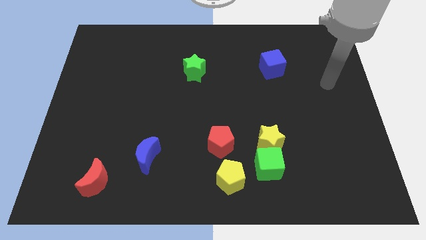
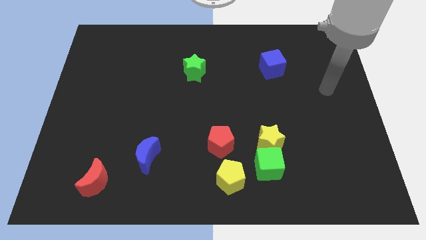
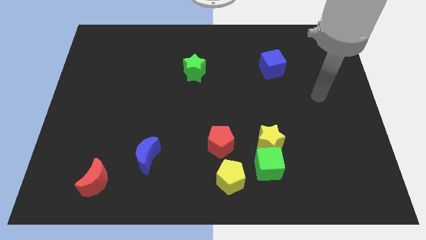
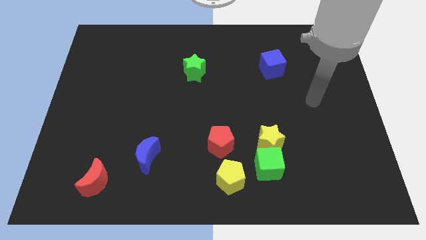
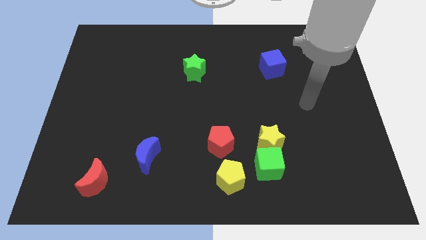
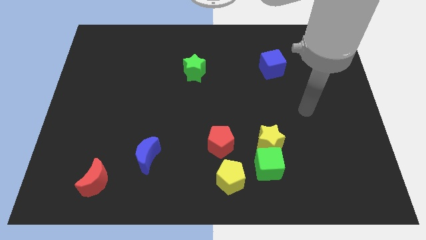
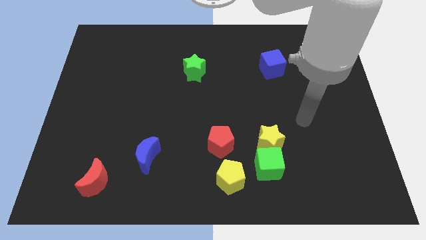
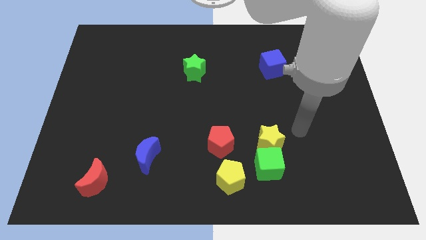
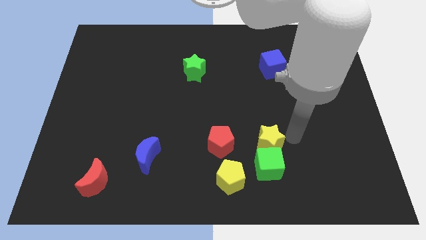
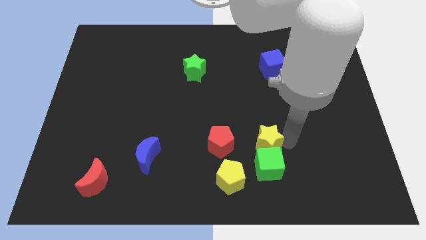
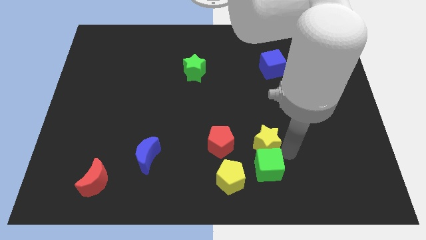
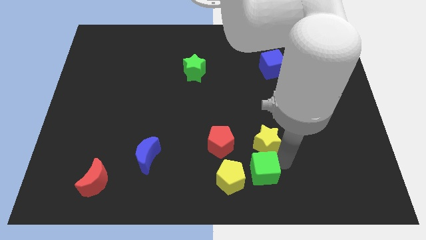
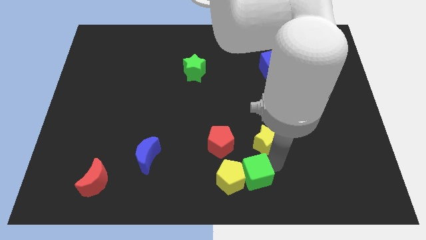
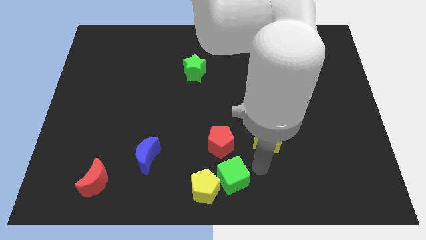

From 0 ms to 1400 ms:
separate the yellow star from the green cube

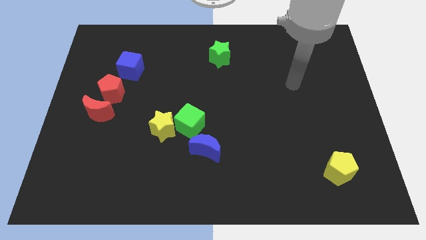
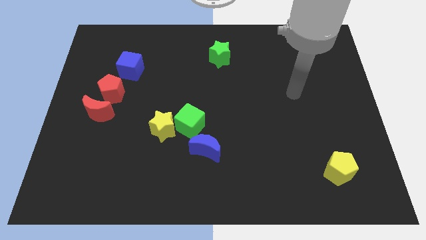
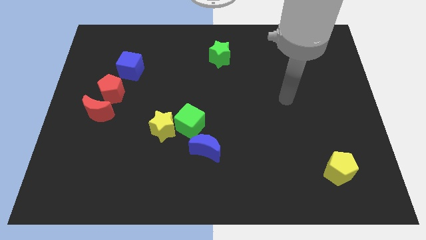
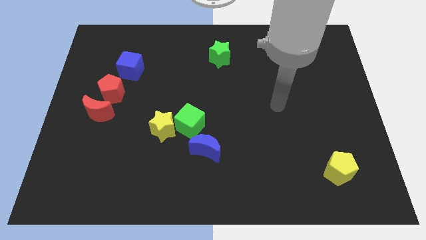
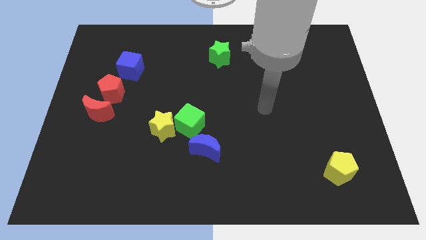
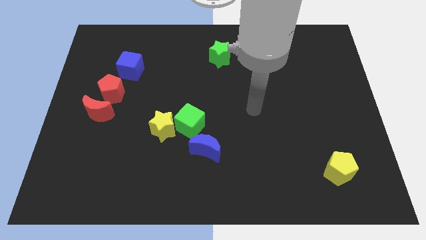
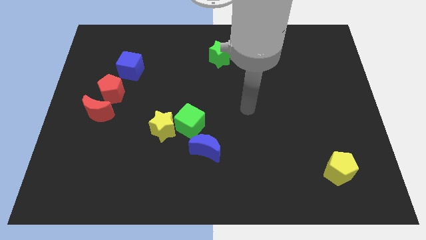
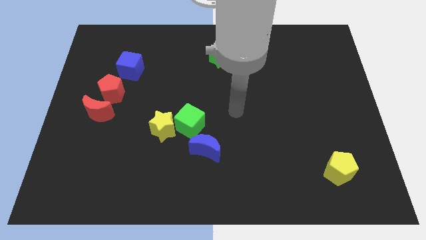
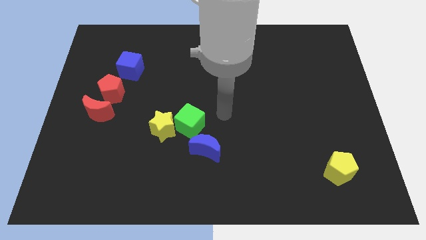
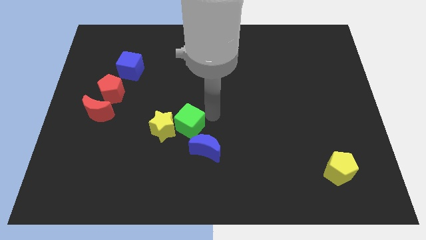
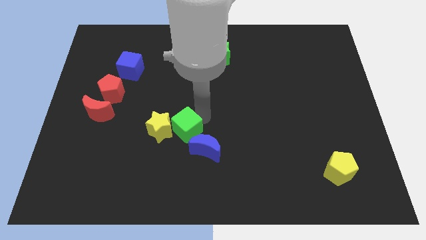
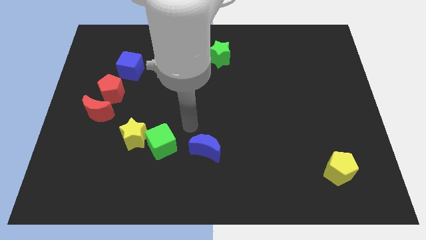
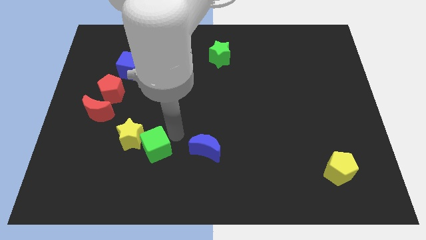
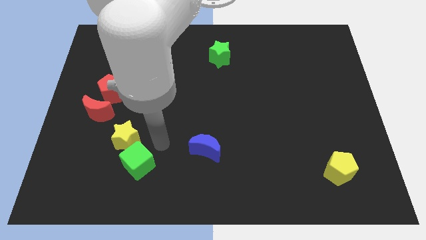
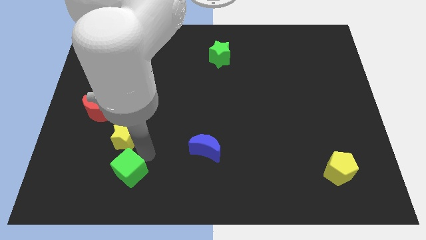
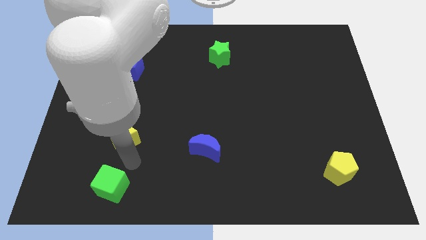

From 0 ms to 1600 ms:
pull the yellow star apart from the green cube

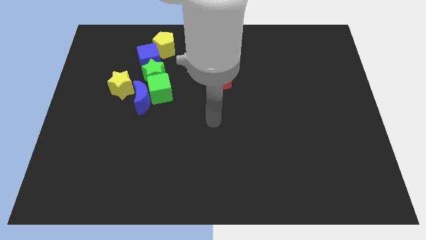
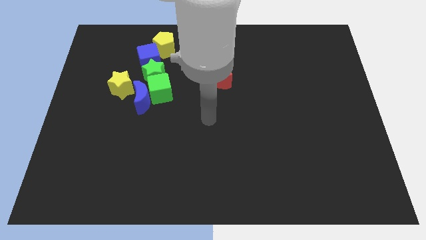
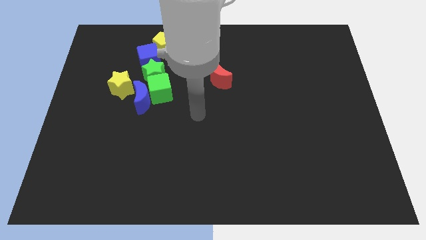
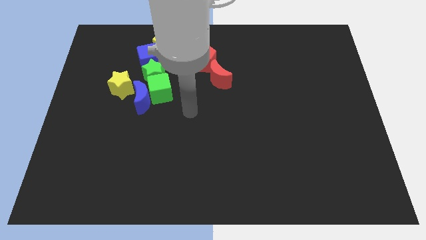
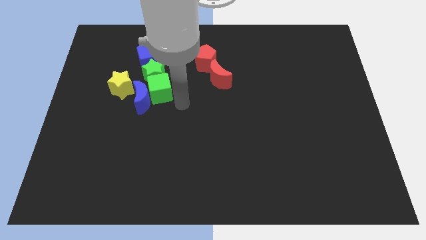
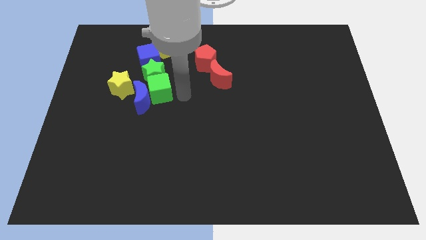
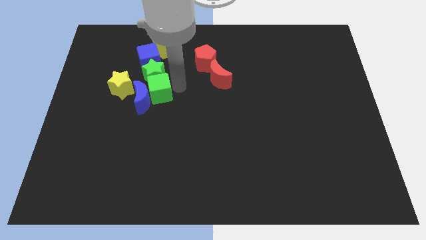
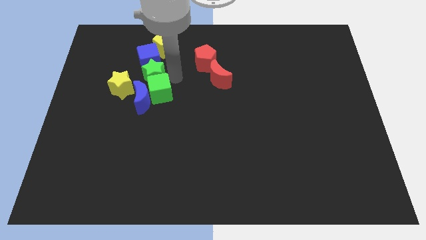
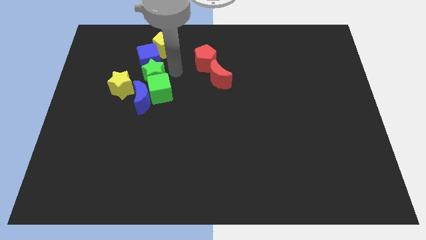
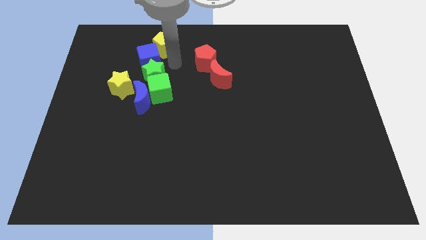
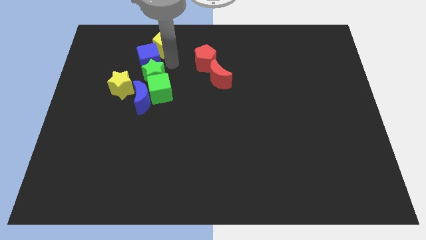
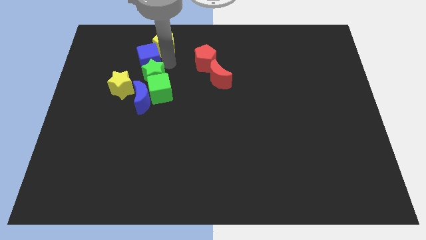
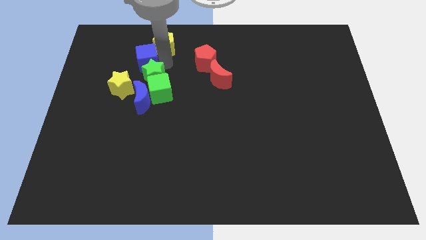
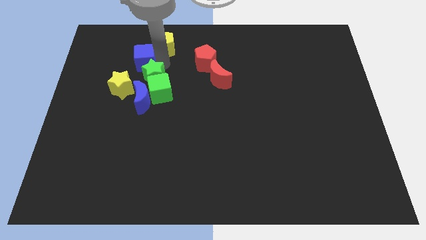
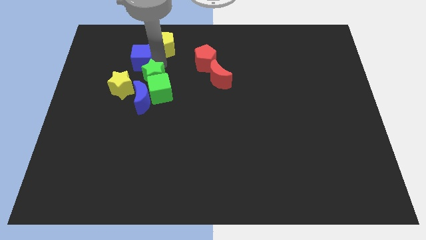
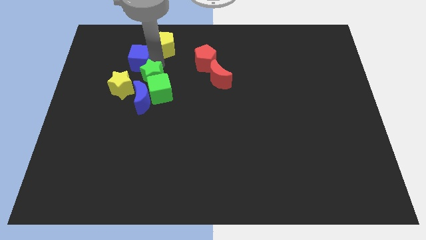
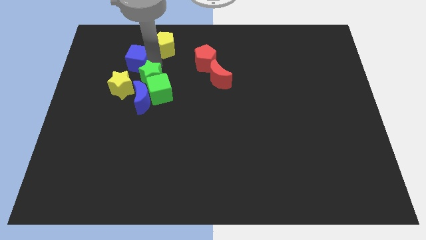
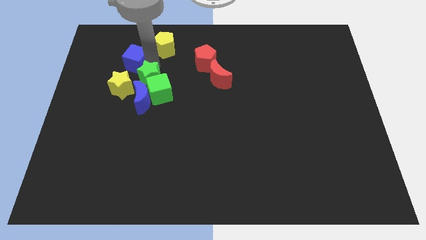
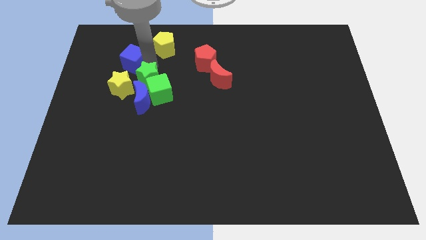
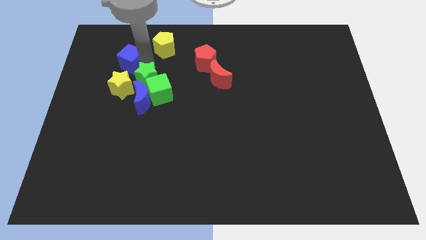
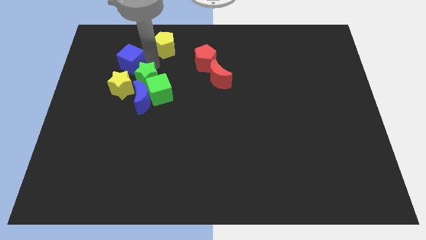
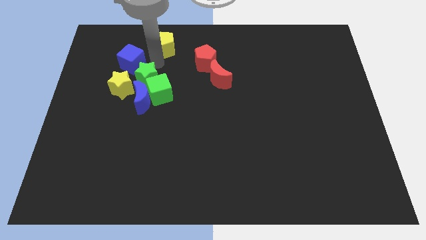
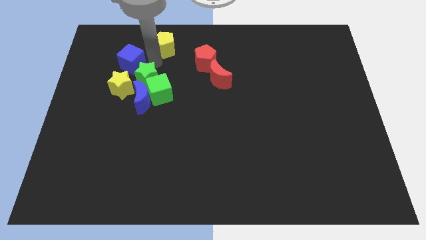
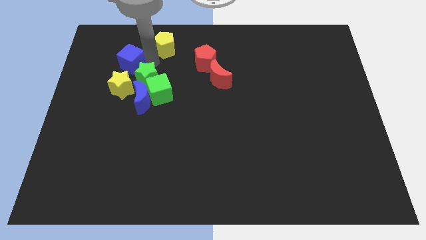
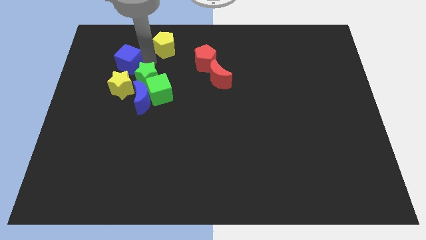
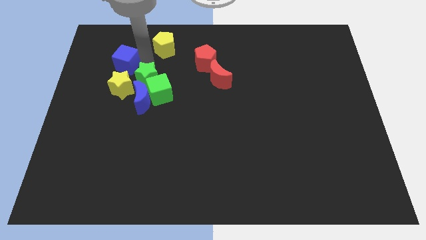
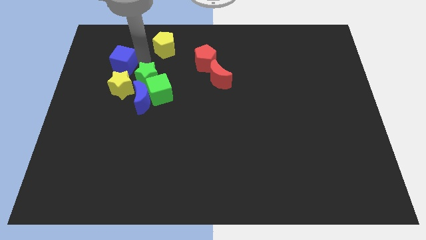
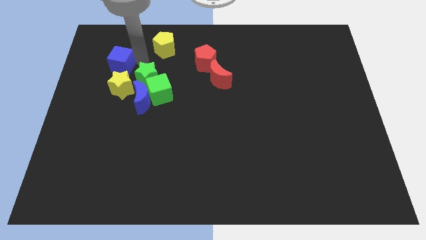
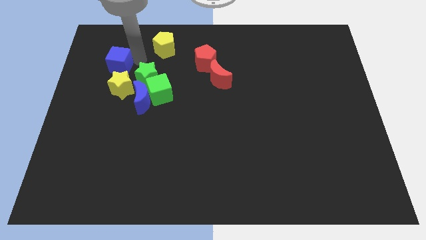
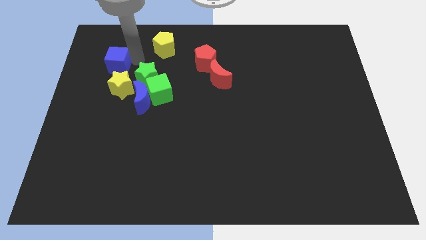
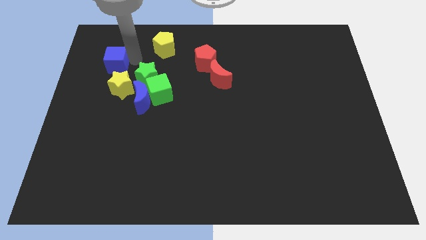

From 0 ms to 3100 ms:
pull the blue cube apart from the green star and yellow pentagon

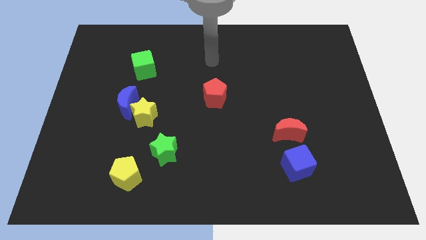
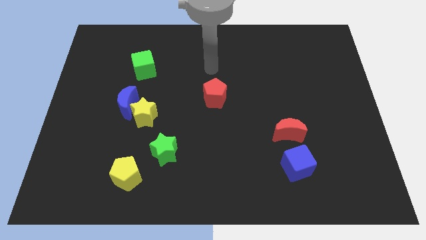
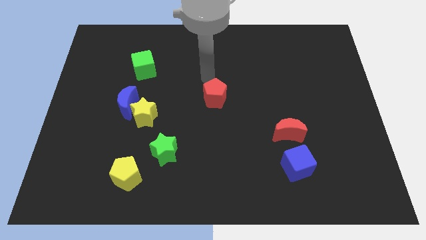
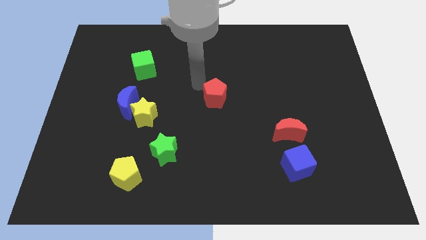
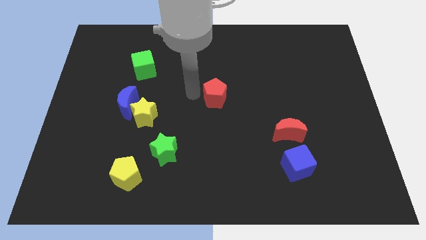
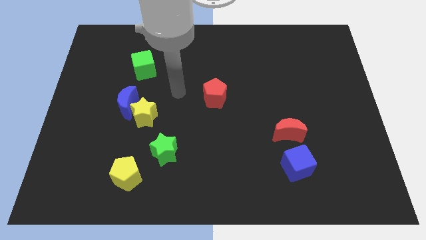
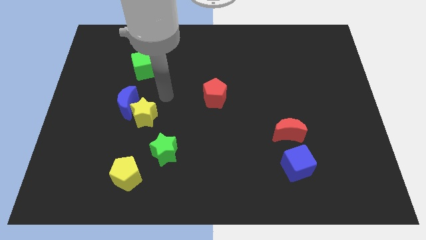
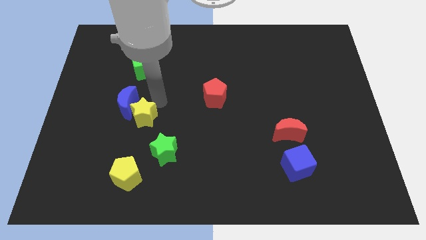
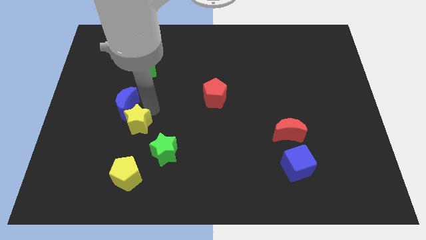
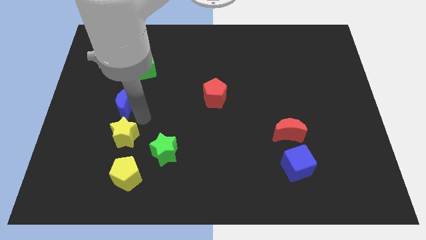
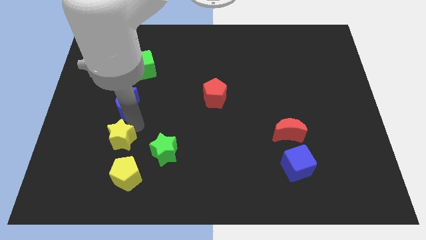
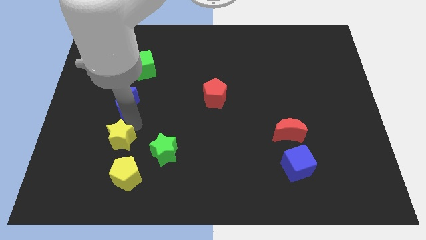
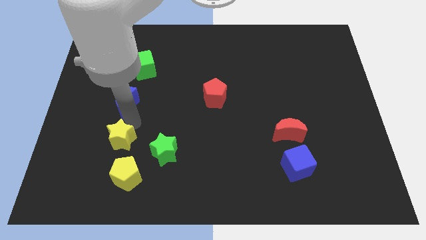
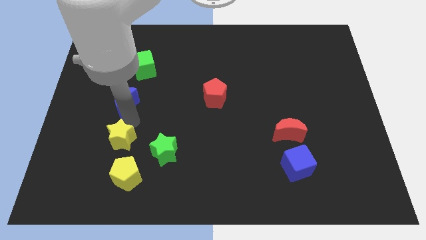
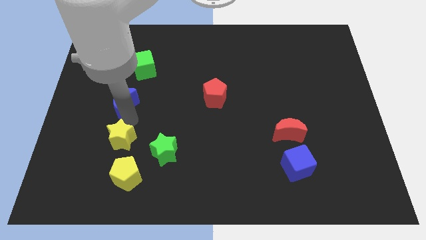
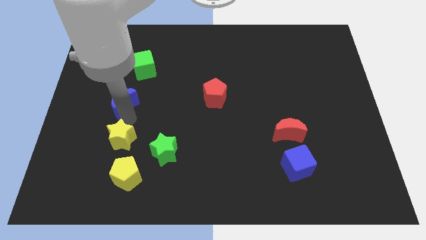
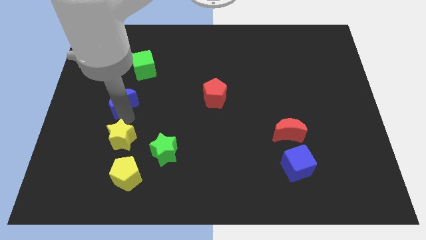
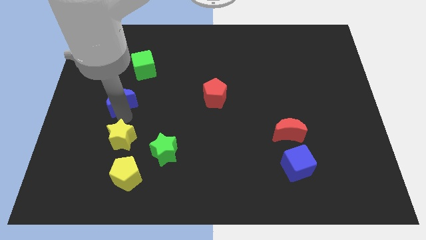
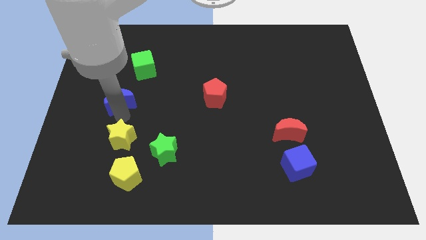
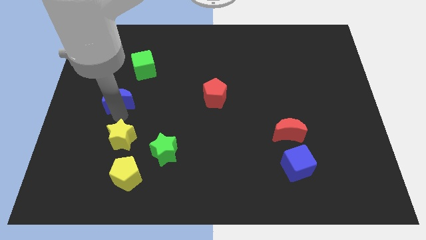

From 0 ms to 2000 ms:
pull the blue moon apart from the yellow star

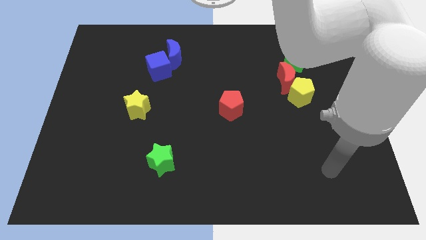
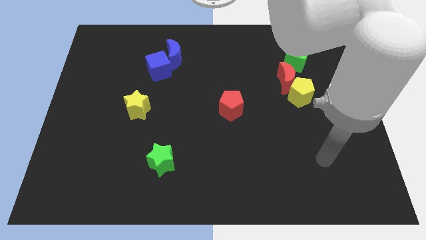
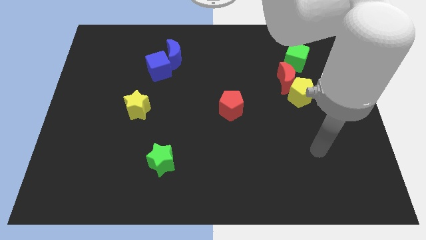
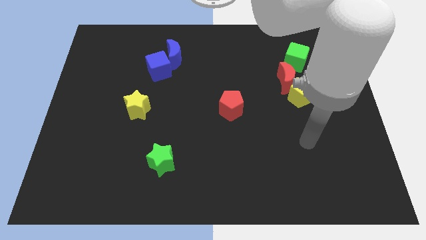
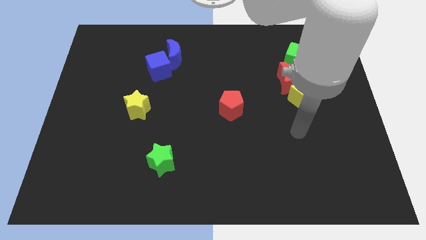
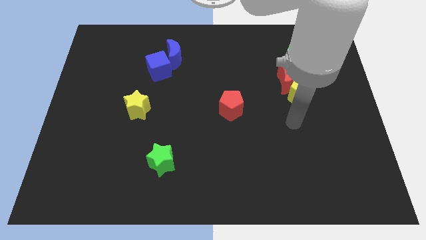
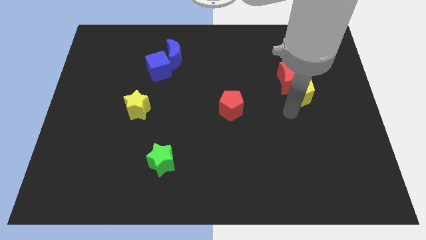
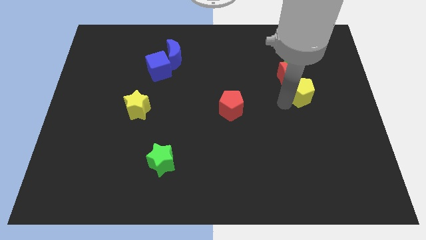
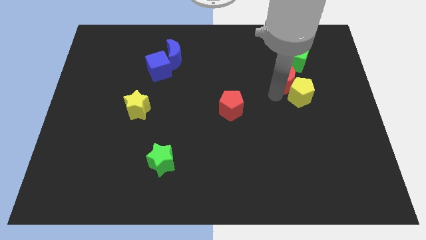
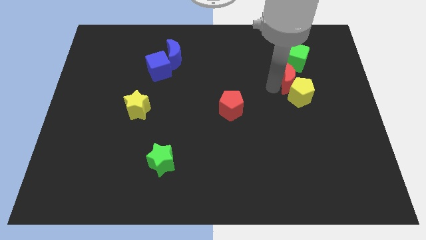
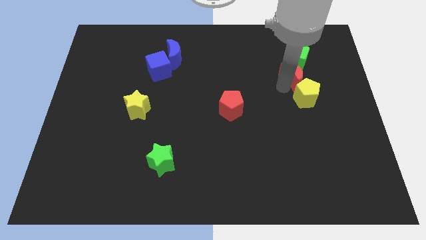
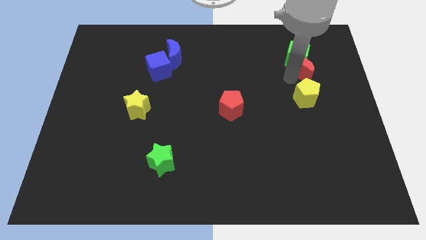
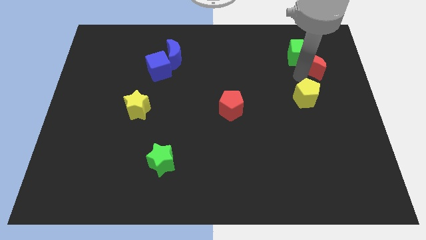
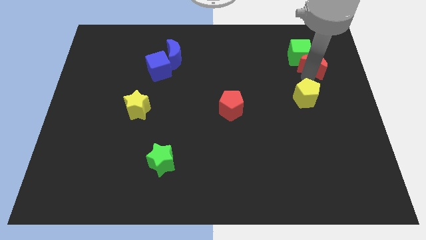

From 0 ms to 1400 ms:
separate the yellow pentagon from the red moon
